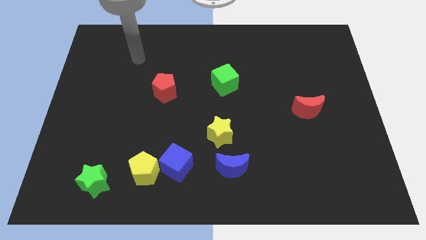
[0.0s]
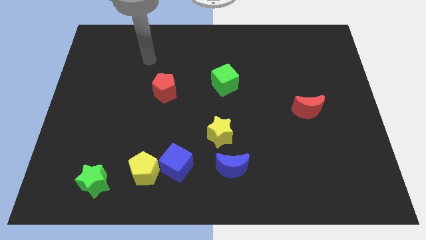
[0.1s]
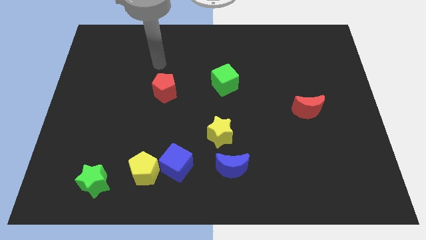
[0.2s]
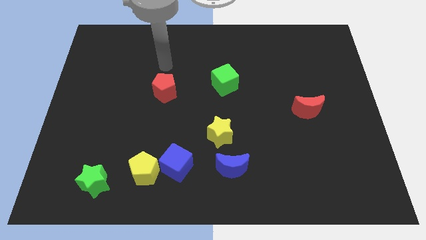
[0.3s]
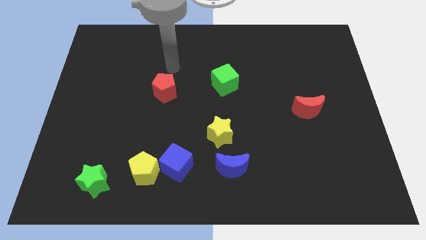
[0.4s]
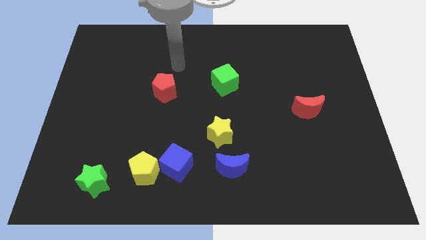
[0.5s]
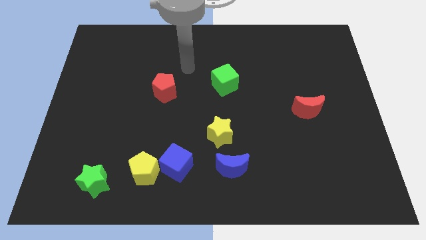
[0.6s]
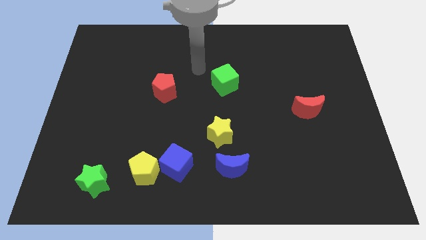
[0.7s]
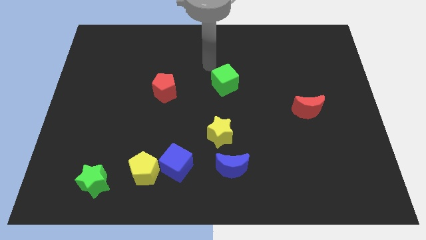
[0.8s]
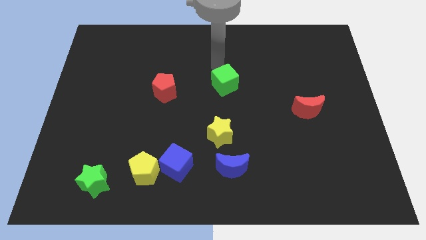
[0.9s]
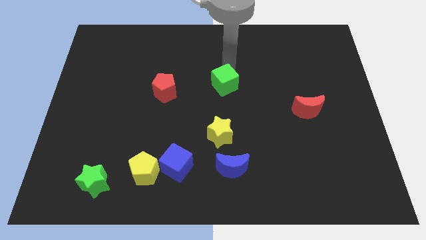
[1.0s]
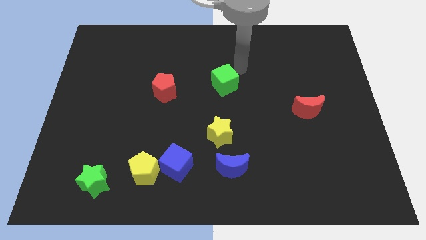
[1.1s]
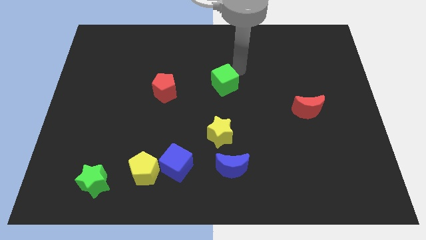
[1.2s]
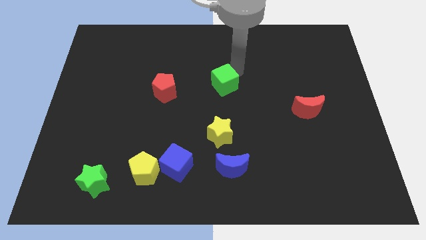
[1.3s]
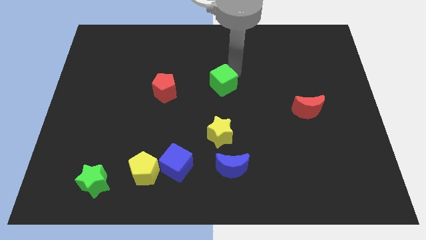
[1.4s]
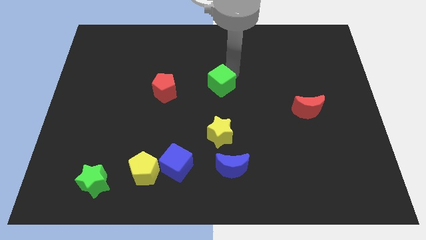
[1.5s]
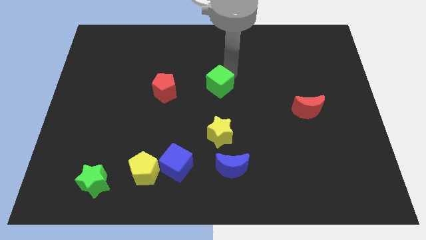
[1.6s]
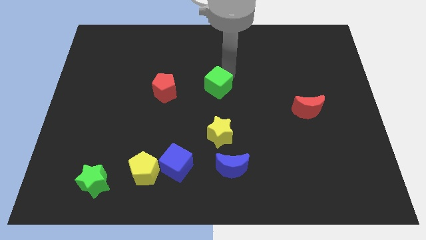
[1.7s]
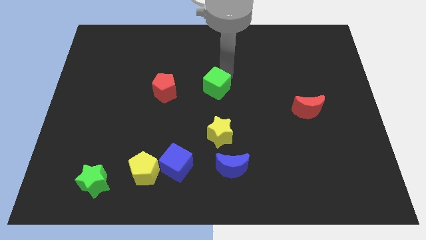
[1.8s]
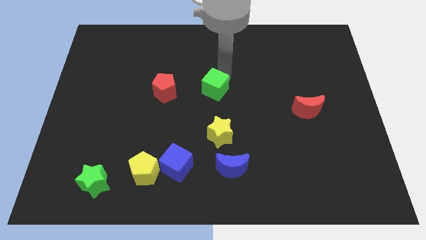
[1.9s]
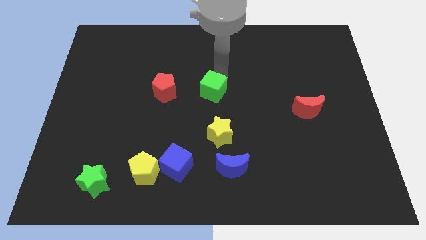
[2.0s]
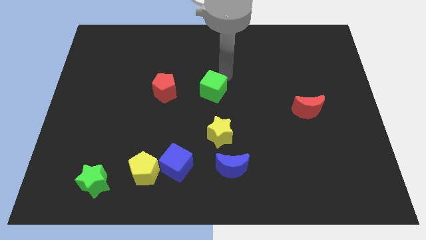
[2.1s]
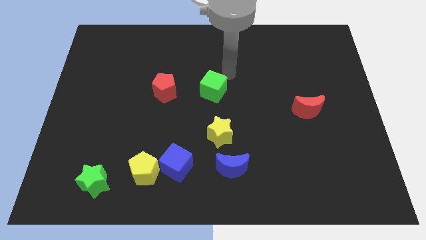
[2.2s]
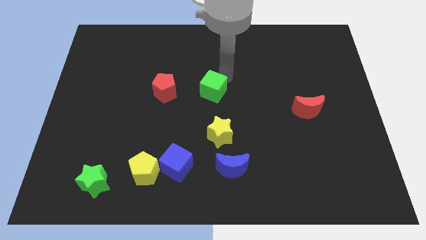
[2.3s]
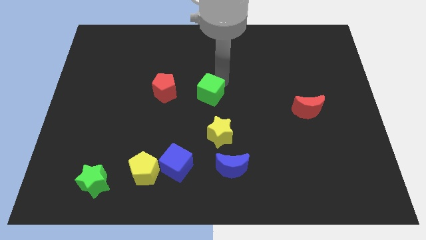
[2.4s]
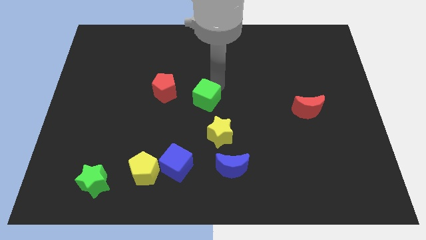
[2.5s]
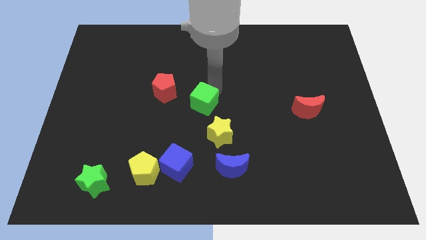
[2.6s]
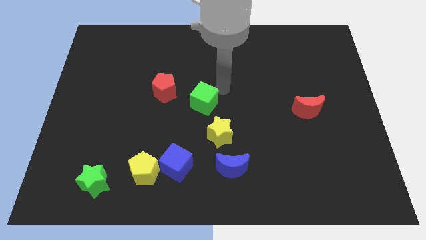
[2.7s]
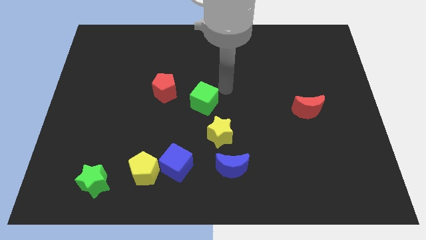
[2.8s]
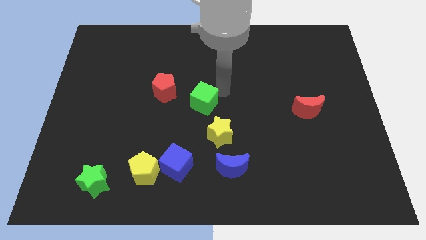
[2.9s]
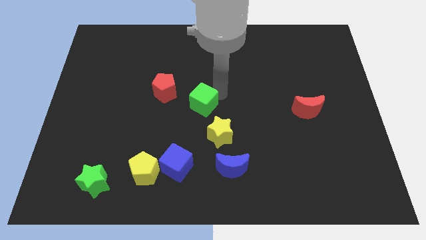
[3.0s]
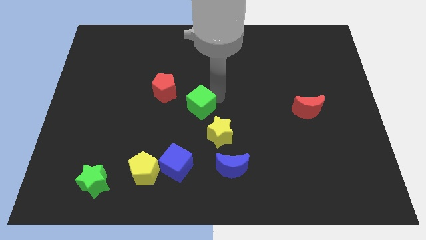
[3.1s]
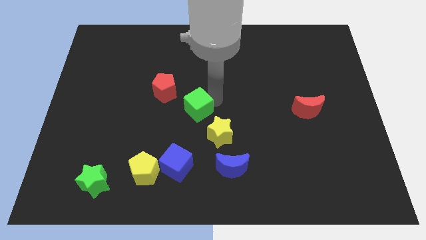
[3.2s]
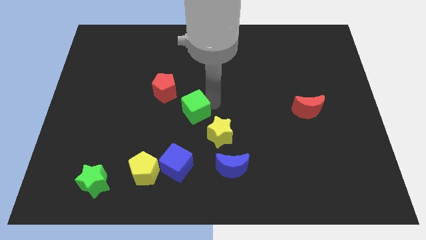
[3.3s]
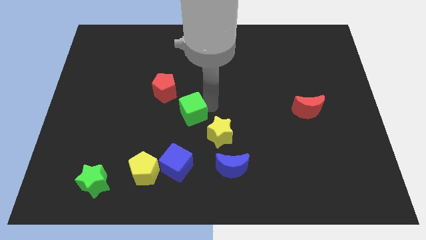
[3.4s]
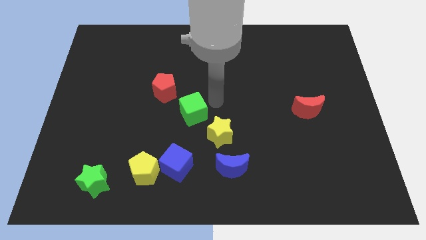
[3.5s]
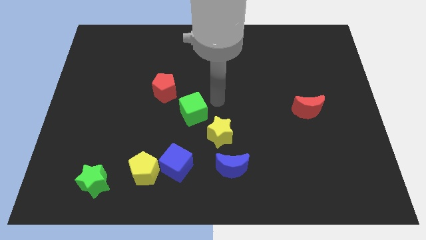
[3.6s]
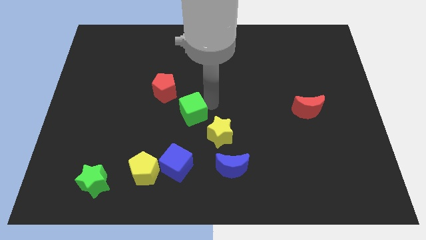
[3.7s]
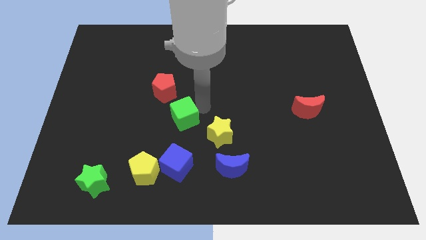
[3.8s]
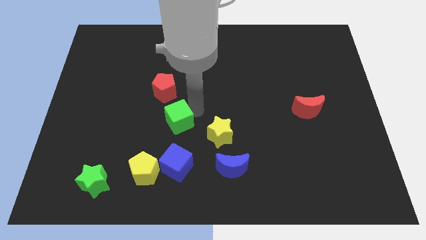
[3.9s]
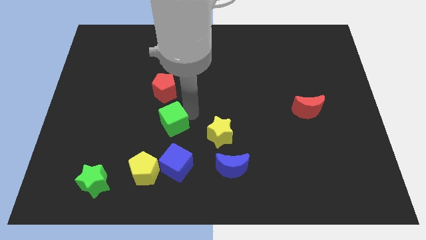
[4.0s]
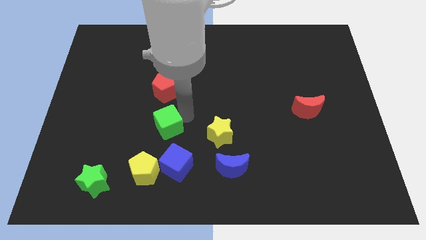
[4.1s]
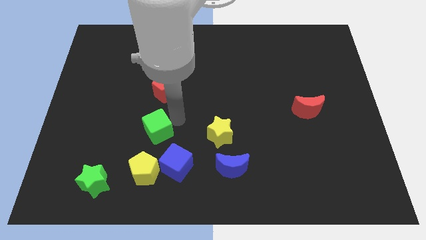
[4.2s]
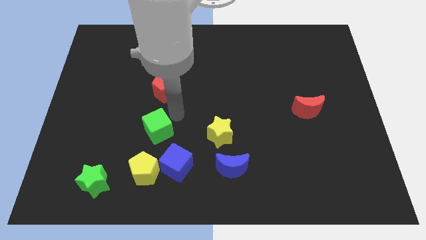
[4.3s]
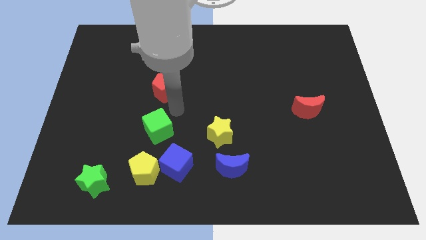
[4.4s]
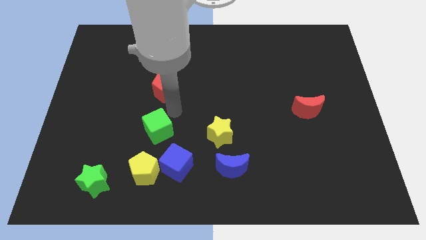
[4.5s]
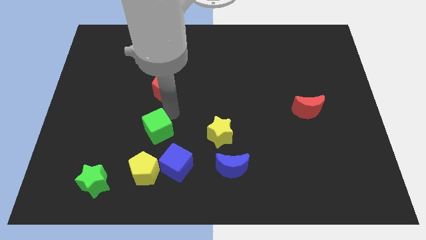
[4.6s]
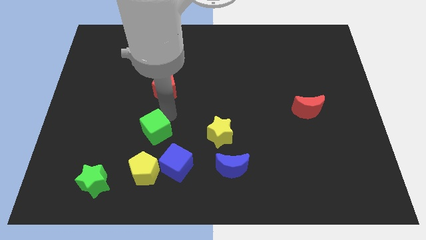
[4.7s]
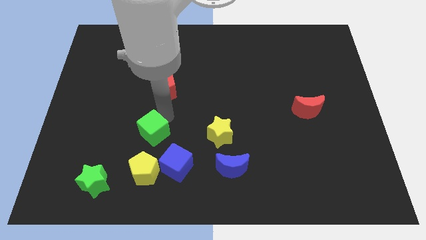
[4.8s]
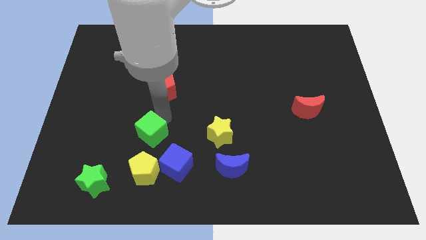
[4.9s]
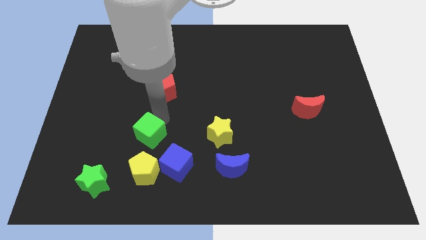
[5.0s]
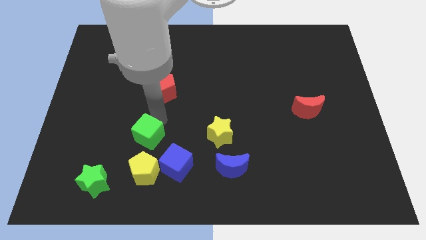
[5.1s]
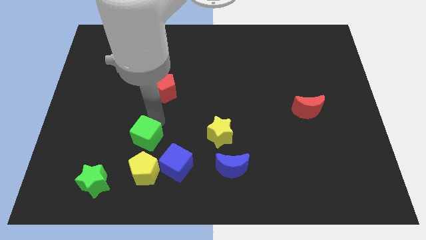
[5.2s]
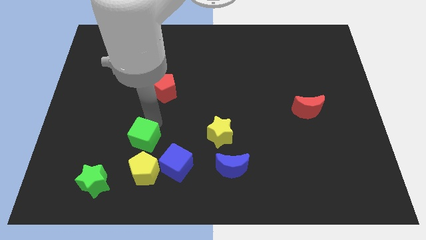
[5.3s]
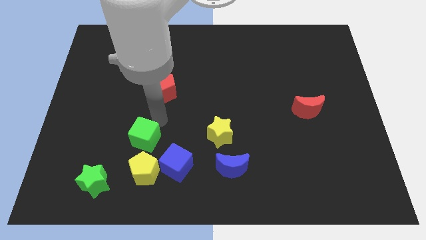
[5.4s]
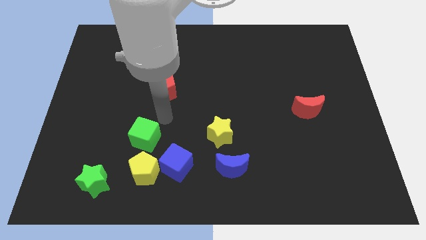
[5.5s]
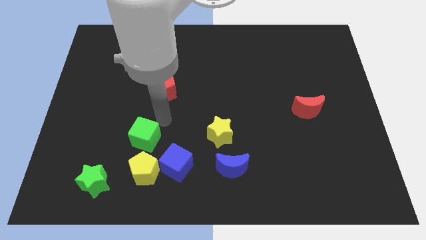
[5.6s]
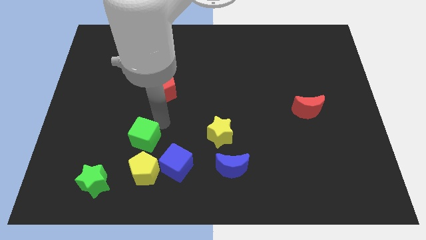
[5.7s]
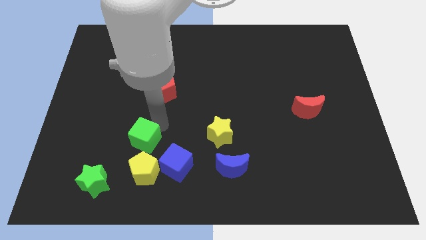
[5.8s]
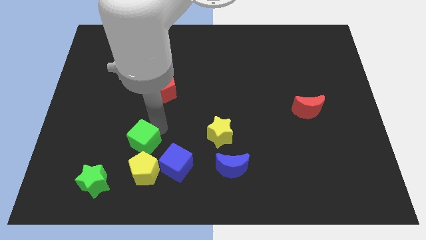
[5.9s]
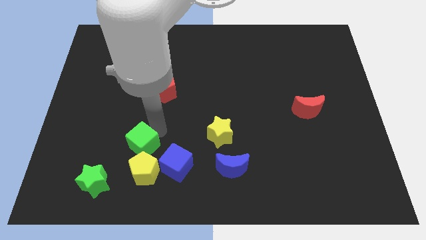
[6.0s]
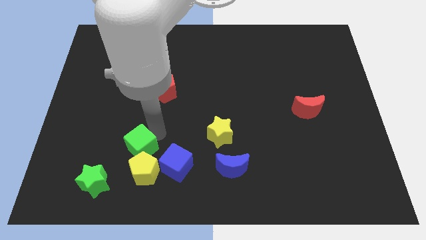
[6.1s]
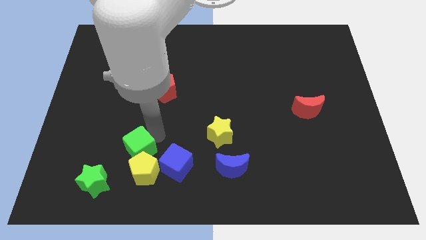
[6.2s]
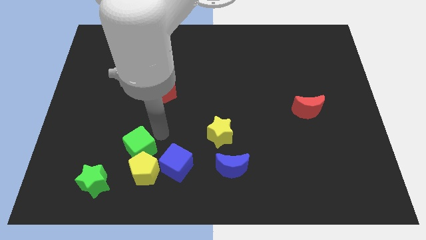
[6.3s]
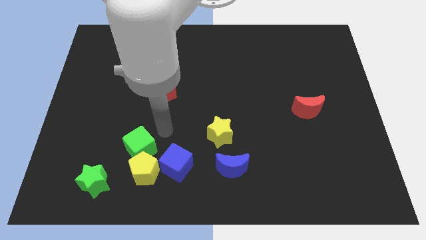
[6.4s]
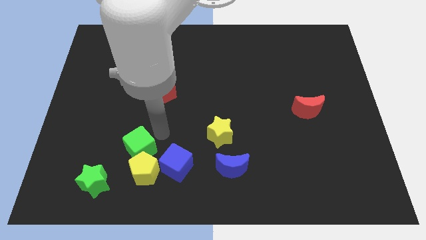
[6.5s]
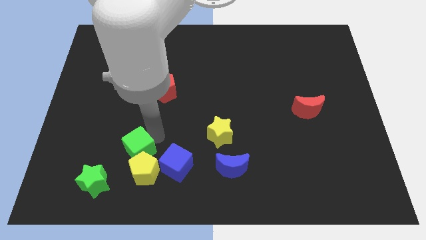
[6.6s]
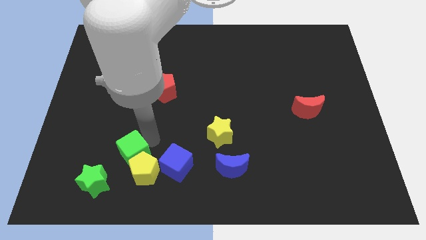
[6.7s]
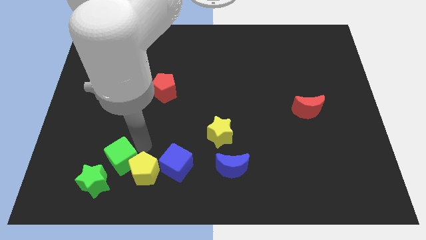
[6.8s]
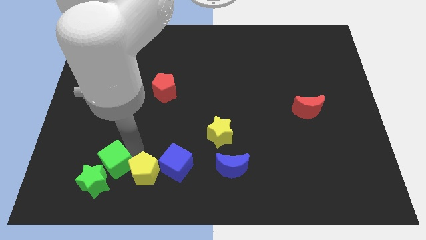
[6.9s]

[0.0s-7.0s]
move the green cube next to the green star

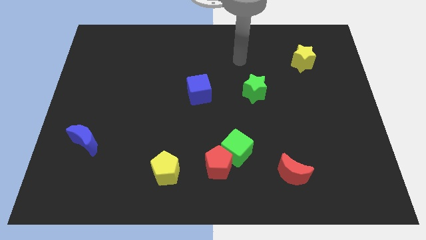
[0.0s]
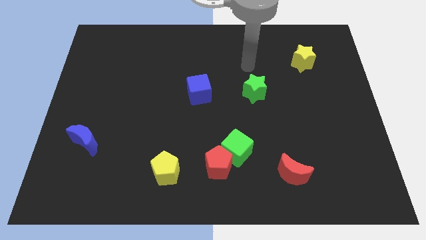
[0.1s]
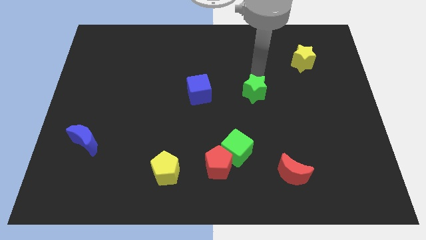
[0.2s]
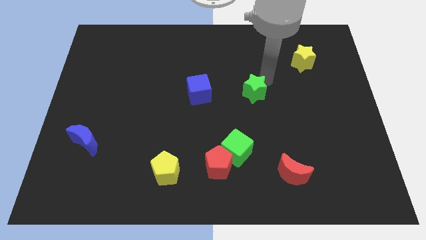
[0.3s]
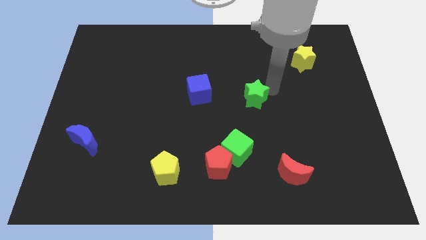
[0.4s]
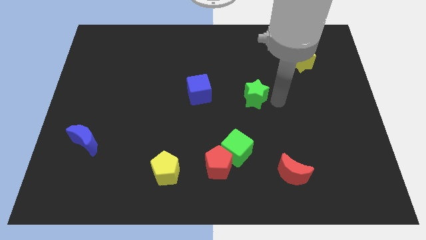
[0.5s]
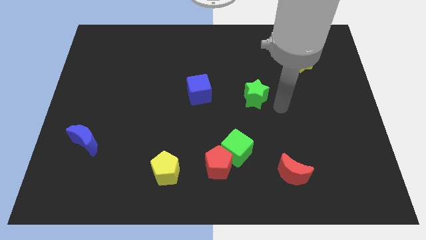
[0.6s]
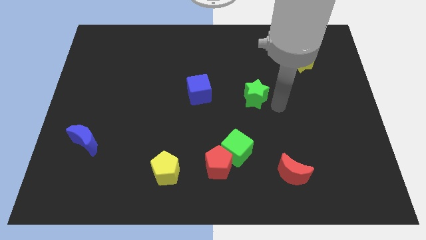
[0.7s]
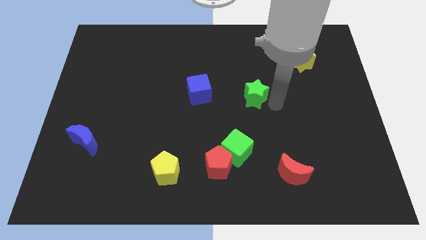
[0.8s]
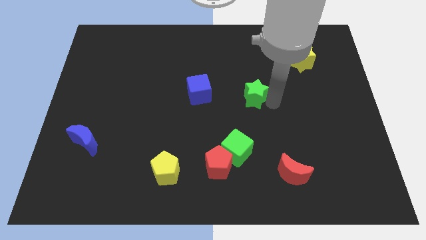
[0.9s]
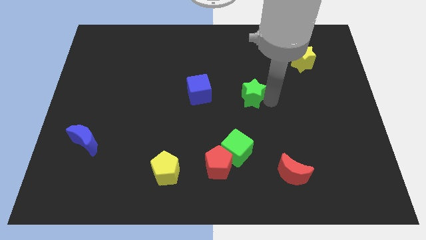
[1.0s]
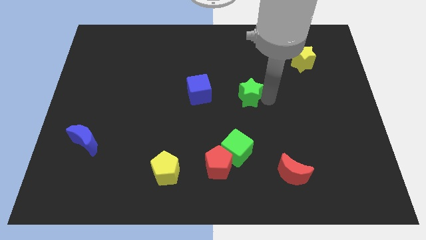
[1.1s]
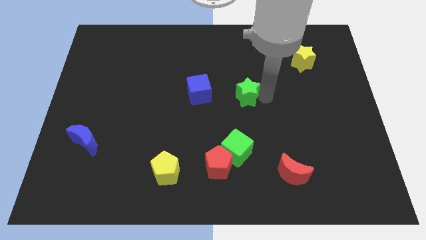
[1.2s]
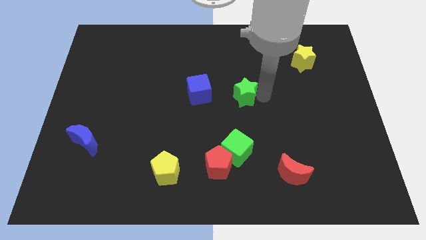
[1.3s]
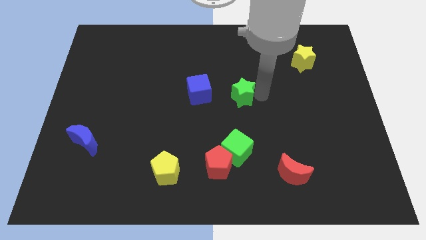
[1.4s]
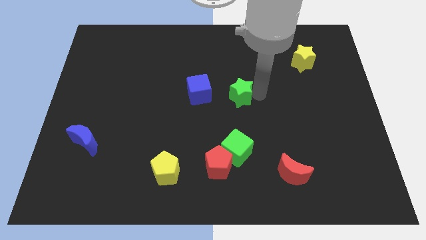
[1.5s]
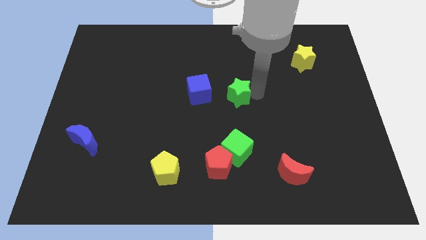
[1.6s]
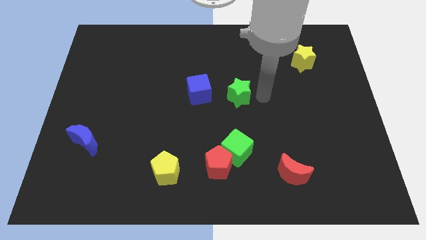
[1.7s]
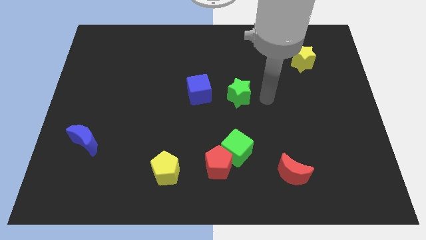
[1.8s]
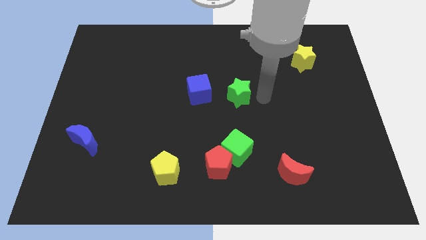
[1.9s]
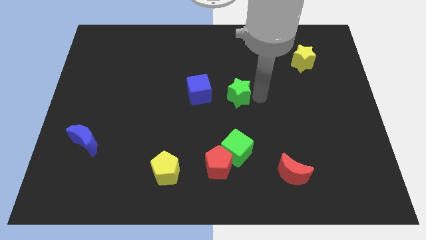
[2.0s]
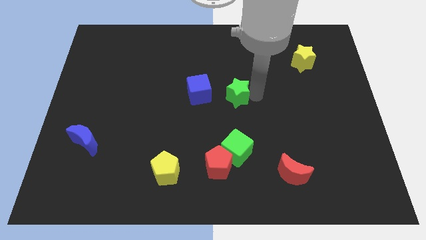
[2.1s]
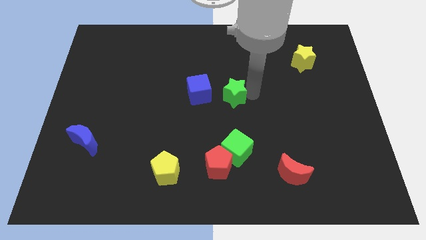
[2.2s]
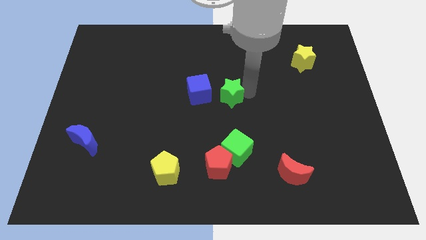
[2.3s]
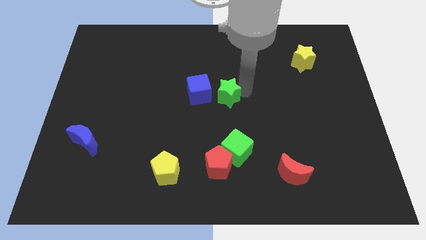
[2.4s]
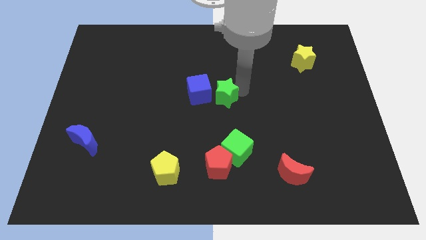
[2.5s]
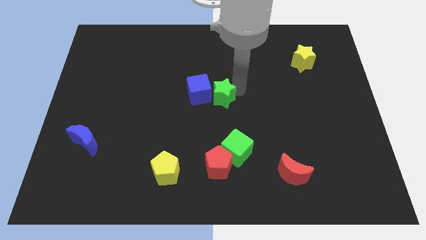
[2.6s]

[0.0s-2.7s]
slide the green star close to the blue cube
